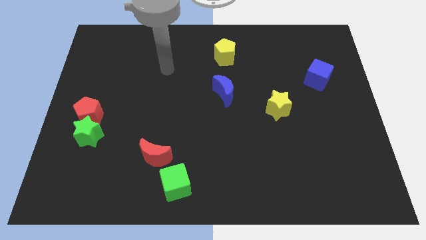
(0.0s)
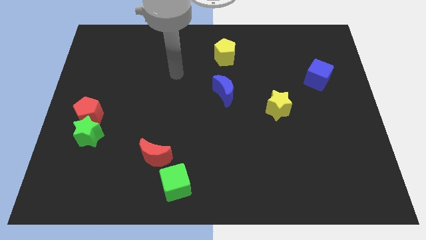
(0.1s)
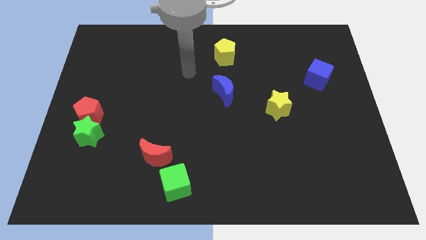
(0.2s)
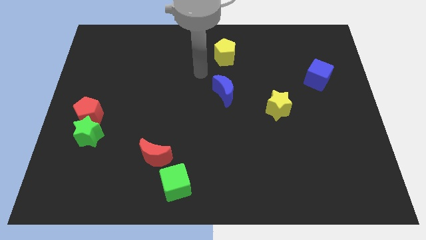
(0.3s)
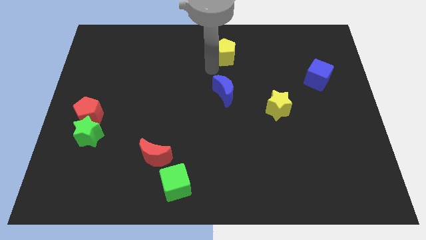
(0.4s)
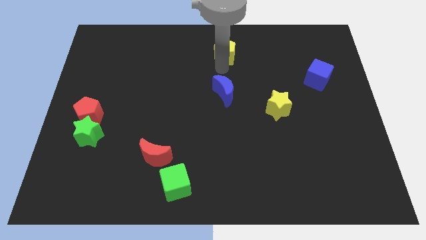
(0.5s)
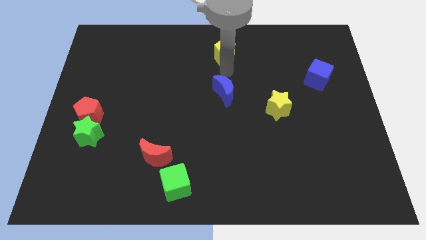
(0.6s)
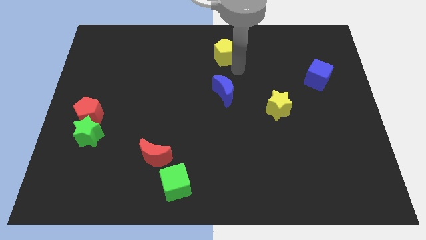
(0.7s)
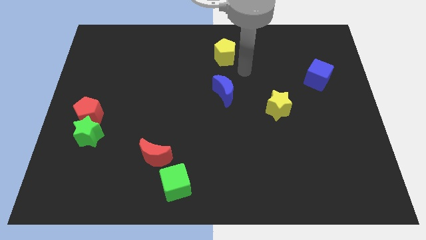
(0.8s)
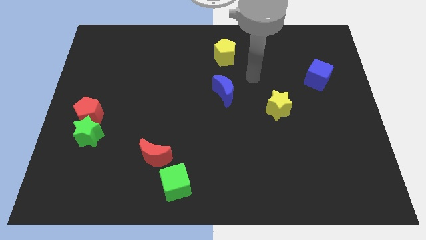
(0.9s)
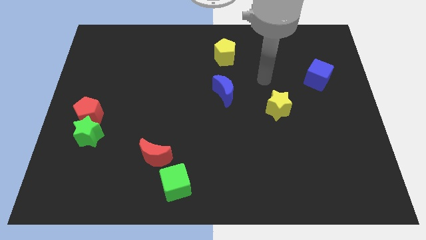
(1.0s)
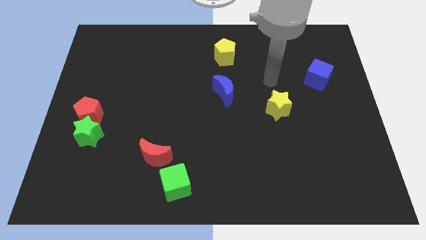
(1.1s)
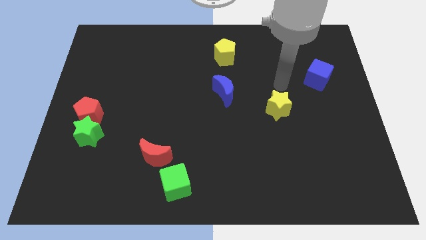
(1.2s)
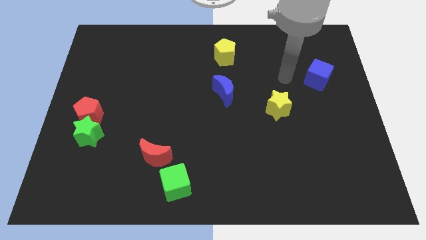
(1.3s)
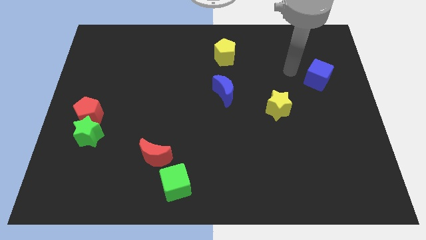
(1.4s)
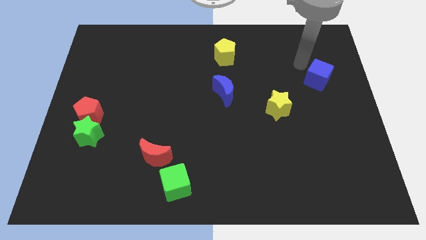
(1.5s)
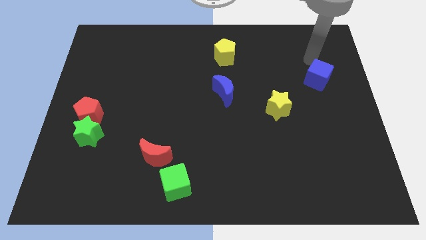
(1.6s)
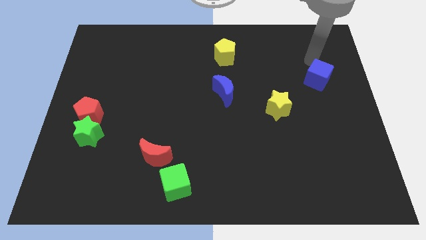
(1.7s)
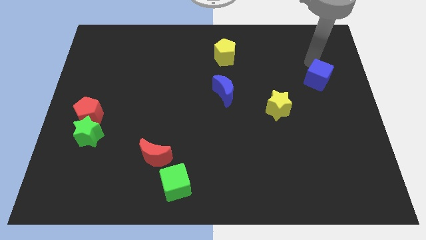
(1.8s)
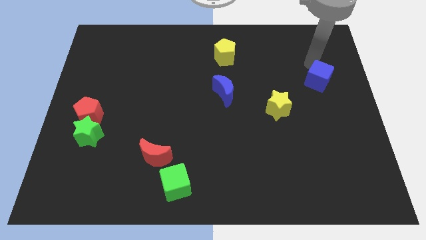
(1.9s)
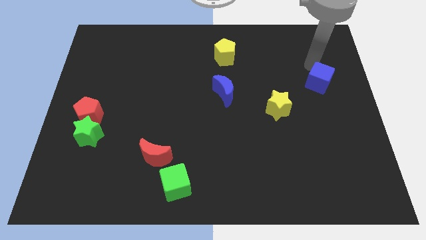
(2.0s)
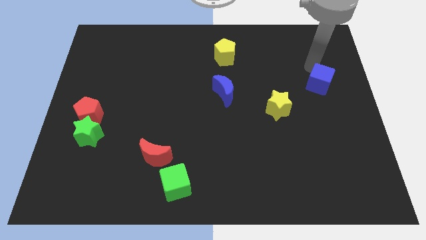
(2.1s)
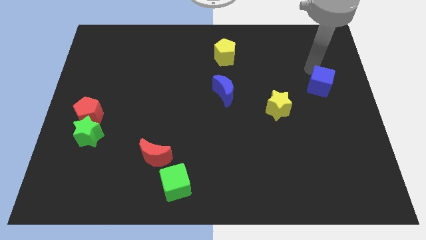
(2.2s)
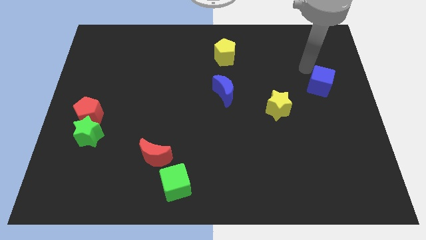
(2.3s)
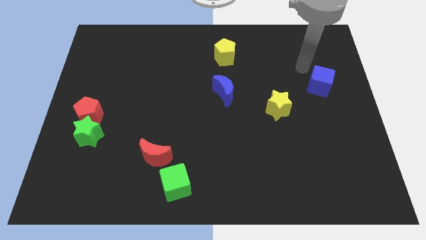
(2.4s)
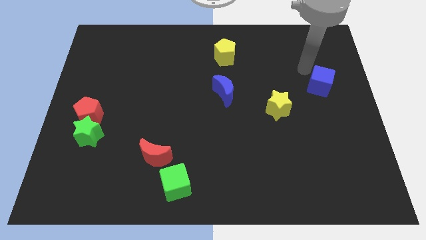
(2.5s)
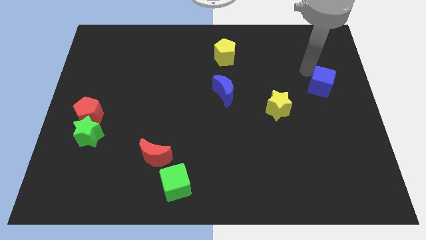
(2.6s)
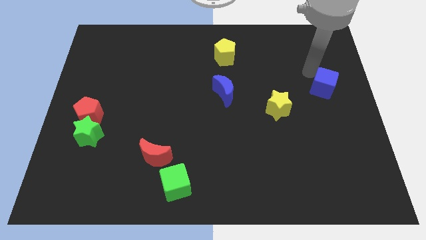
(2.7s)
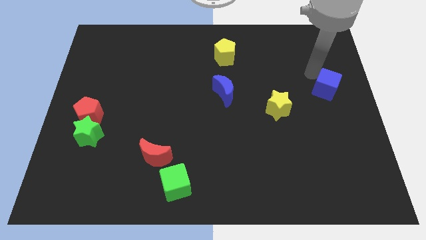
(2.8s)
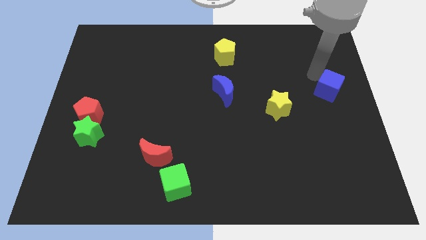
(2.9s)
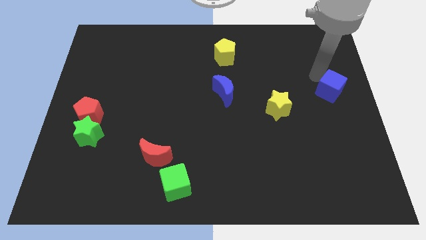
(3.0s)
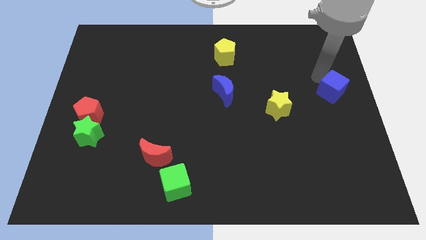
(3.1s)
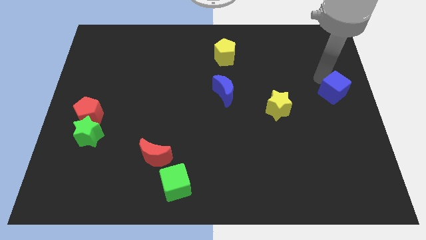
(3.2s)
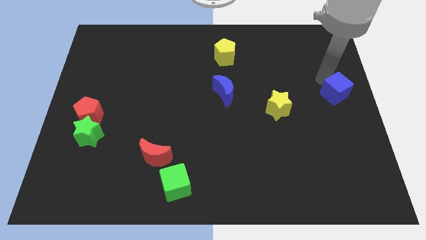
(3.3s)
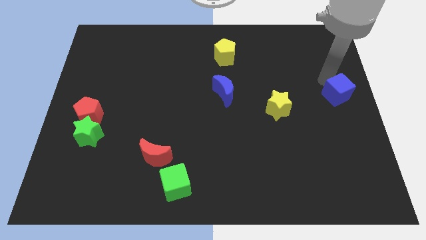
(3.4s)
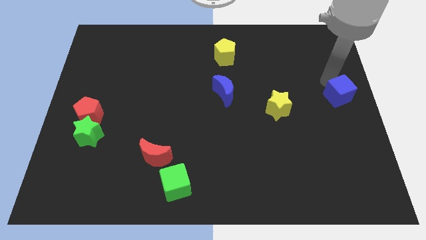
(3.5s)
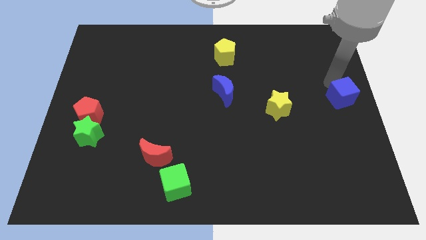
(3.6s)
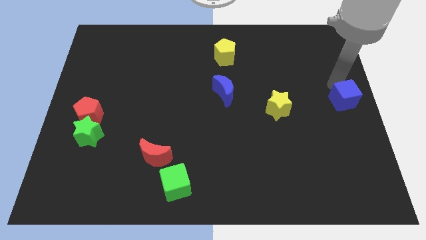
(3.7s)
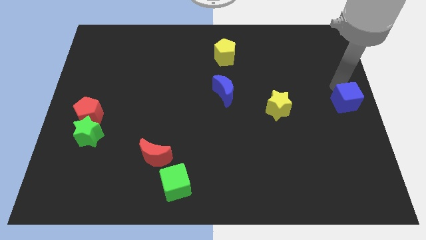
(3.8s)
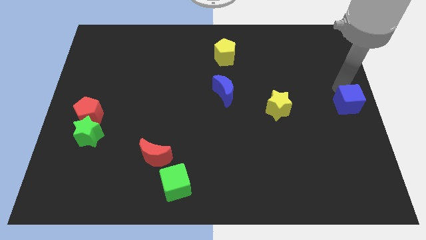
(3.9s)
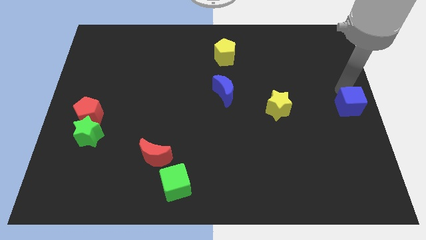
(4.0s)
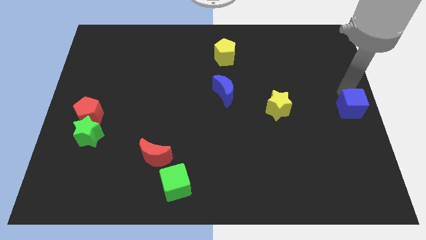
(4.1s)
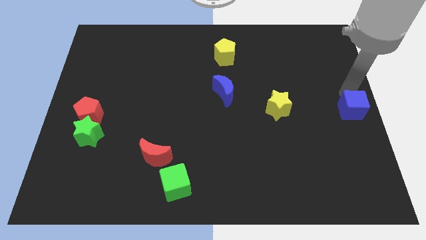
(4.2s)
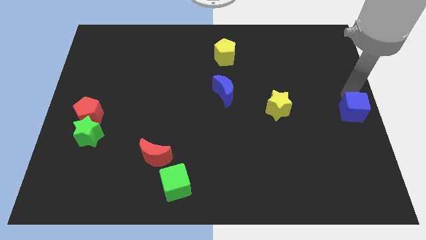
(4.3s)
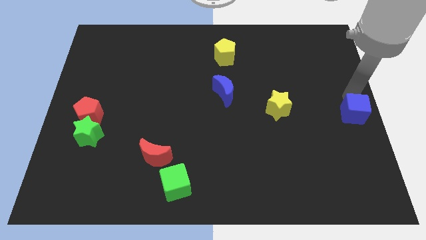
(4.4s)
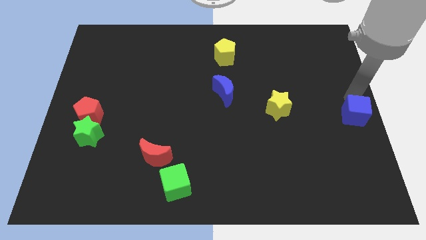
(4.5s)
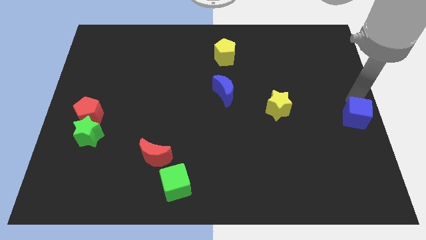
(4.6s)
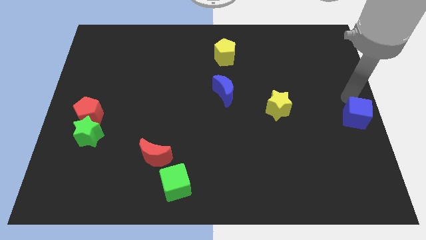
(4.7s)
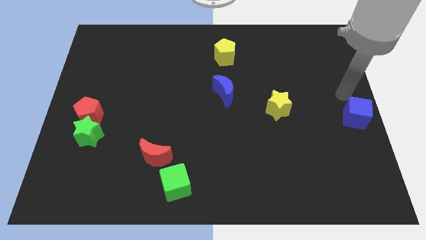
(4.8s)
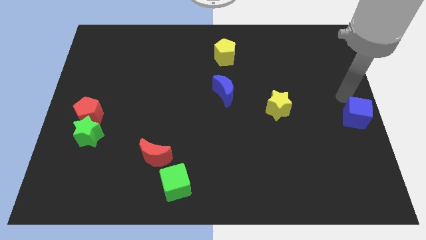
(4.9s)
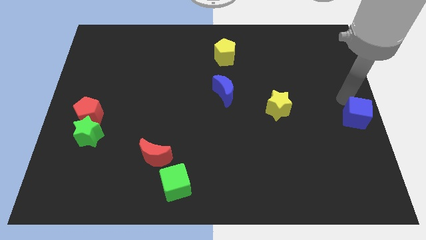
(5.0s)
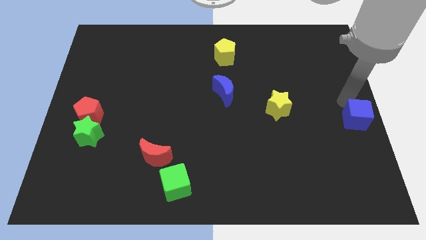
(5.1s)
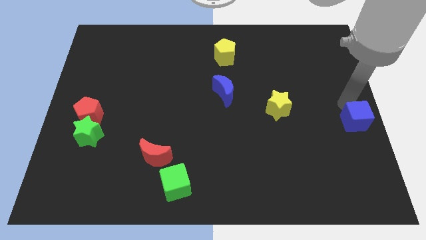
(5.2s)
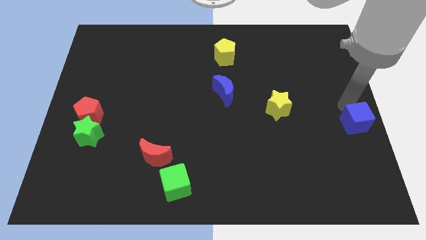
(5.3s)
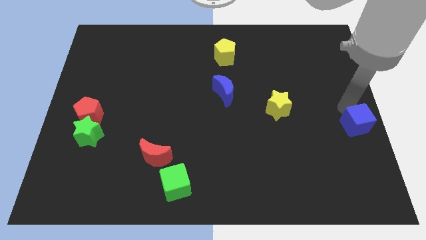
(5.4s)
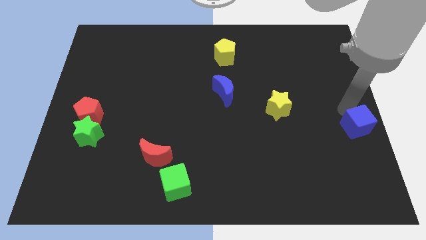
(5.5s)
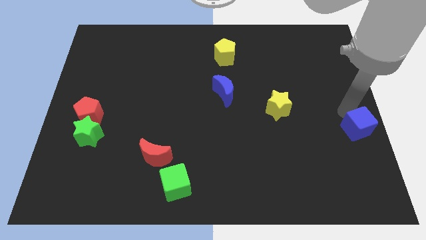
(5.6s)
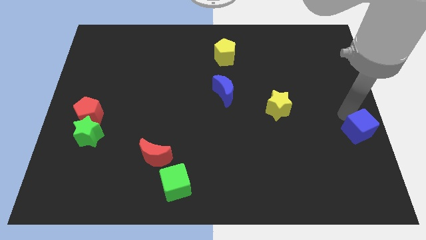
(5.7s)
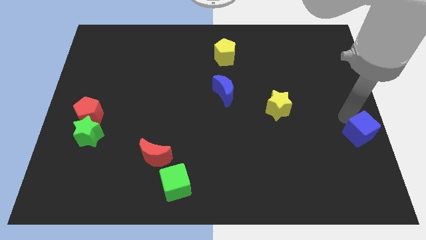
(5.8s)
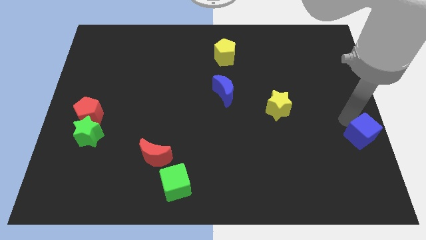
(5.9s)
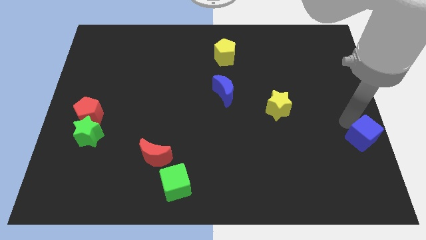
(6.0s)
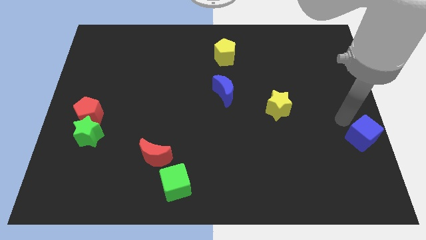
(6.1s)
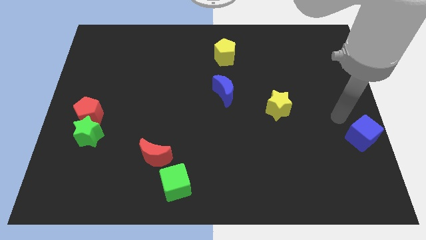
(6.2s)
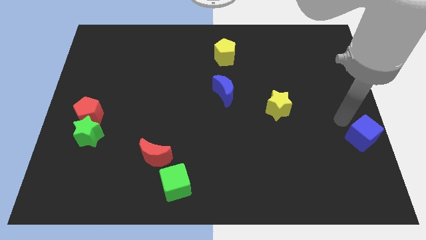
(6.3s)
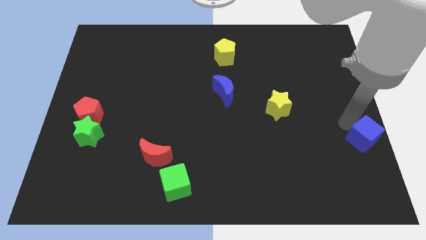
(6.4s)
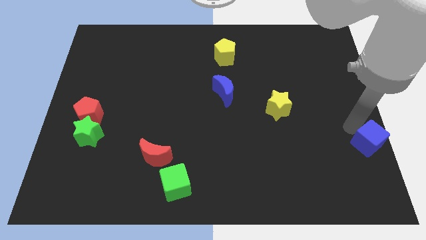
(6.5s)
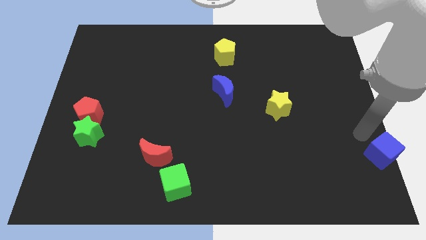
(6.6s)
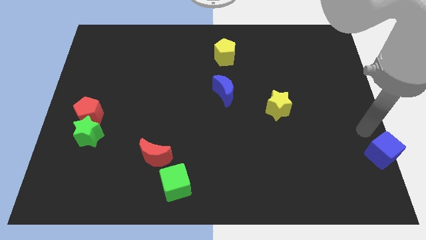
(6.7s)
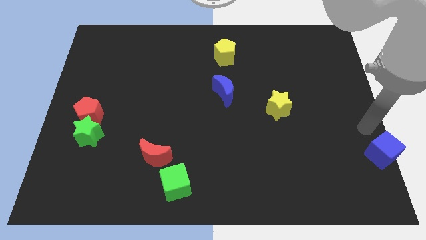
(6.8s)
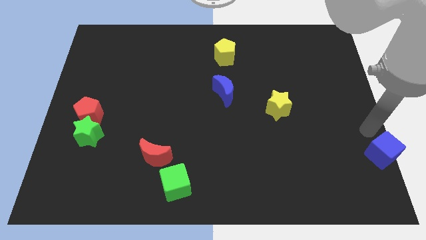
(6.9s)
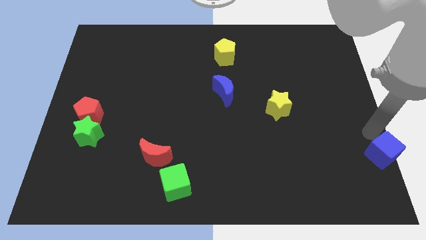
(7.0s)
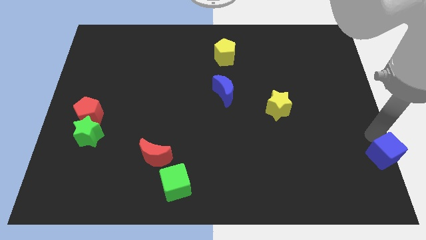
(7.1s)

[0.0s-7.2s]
push the blue cube to the bottom right
